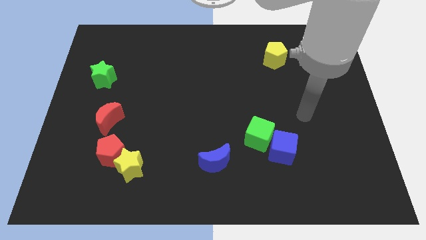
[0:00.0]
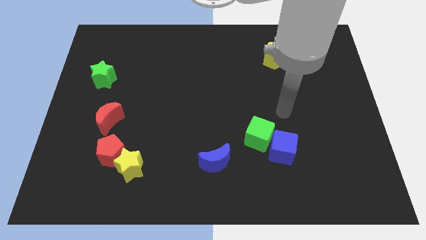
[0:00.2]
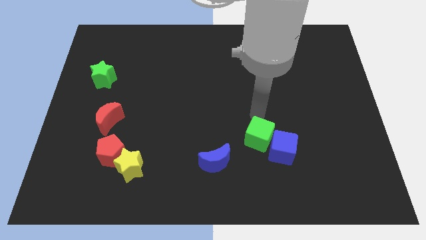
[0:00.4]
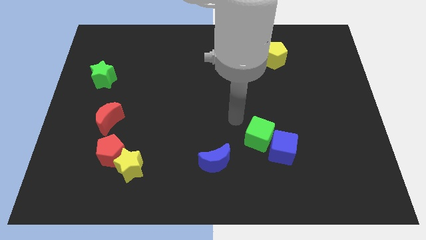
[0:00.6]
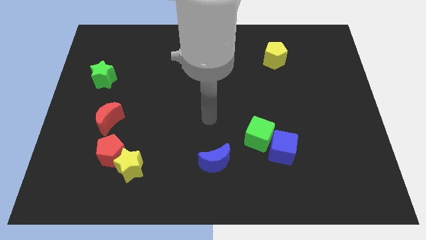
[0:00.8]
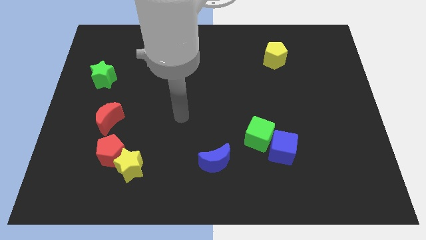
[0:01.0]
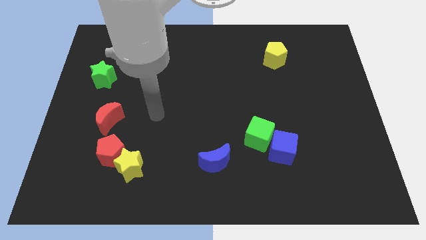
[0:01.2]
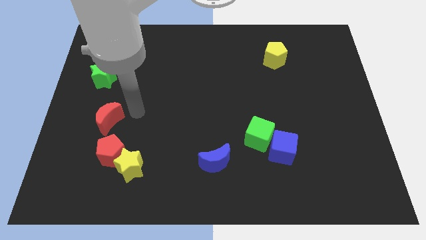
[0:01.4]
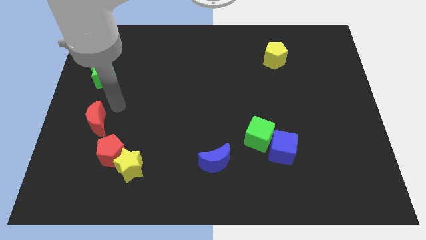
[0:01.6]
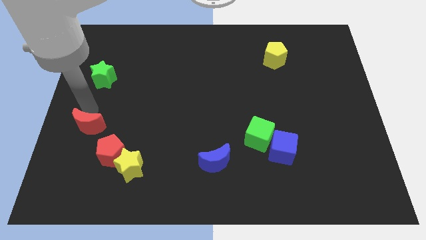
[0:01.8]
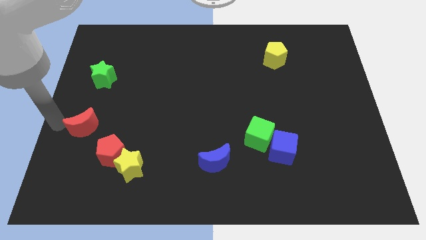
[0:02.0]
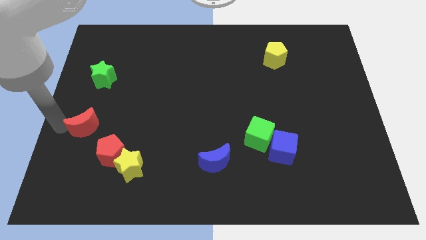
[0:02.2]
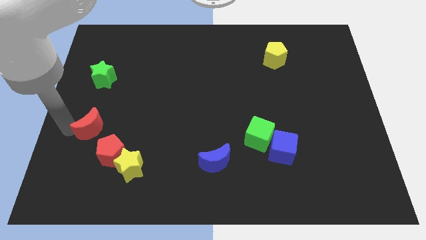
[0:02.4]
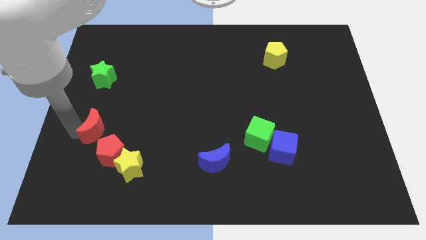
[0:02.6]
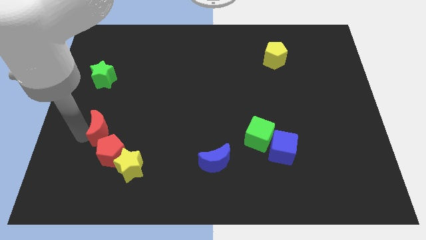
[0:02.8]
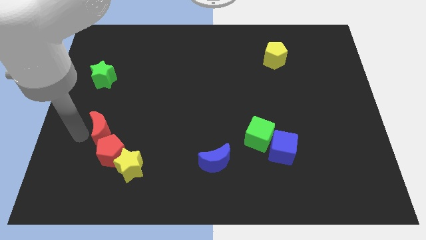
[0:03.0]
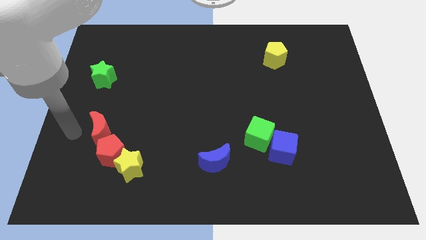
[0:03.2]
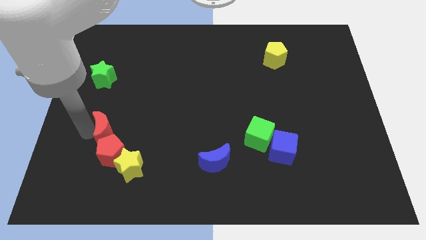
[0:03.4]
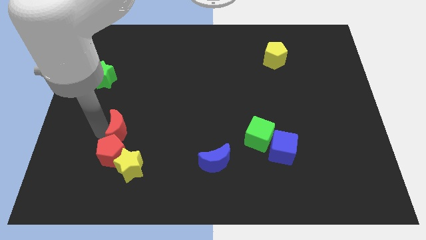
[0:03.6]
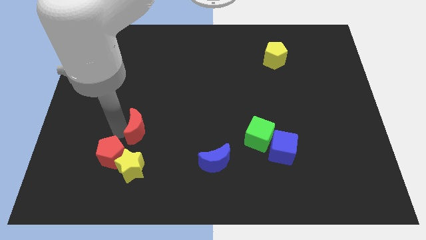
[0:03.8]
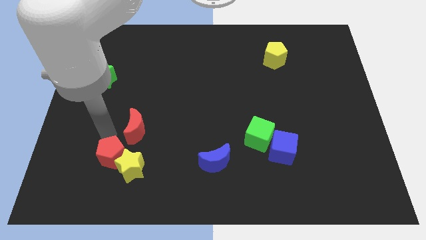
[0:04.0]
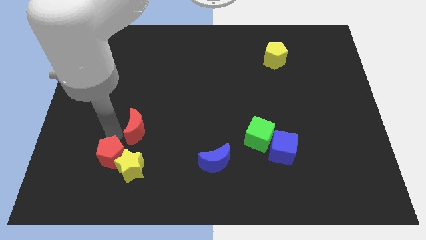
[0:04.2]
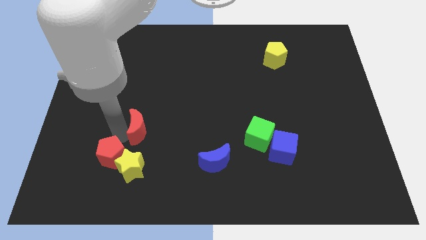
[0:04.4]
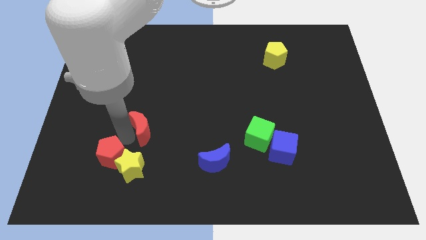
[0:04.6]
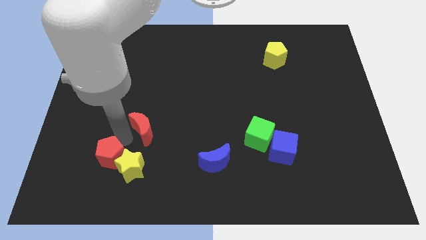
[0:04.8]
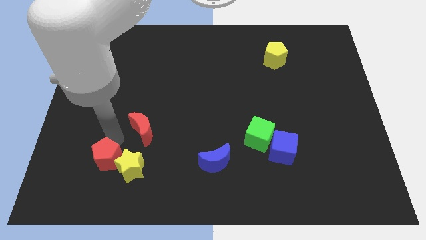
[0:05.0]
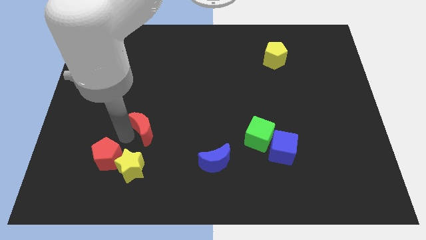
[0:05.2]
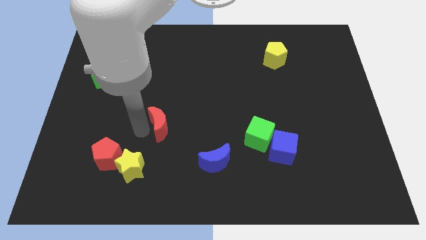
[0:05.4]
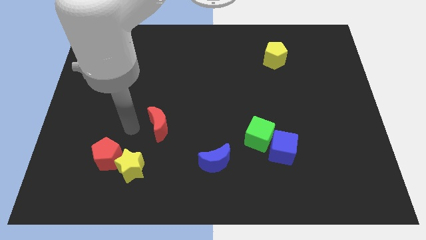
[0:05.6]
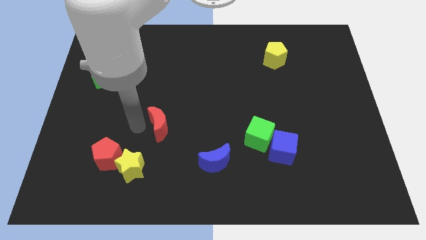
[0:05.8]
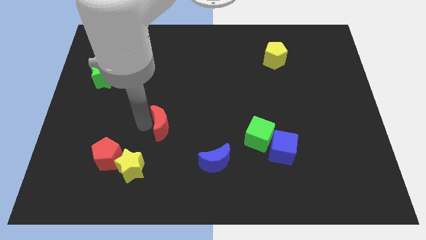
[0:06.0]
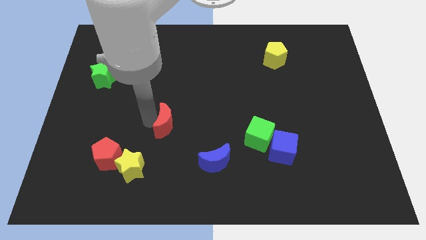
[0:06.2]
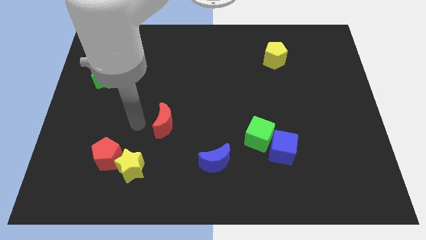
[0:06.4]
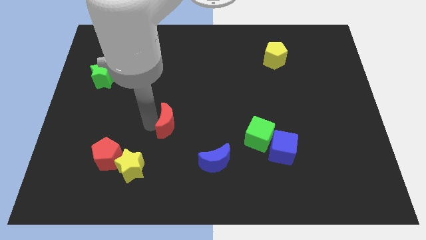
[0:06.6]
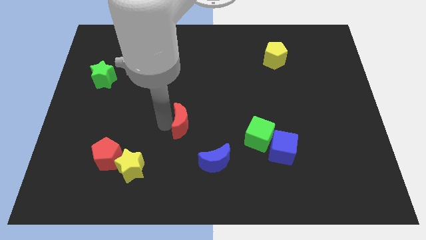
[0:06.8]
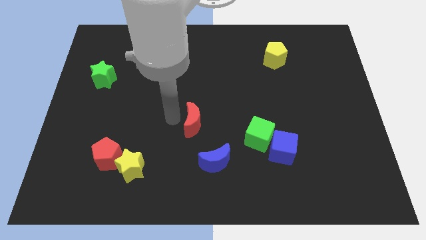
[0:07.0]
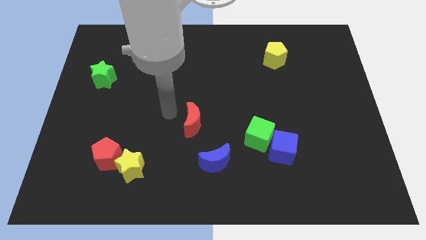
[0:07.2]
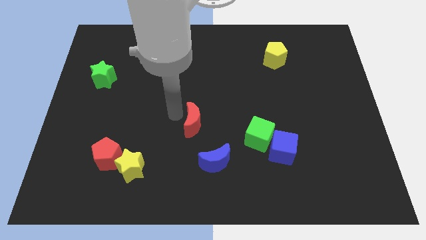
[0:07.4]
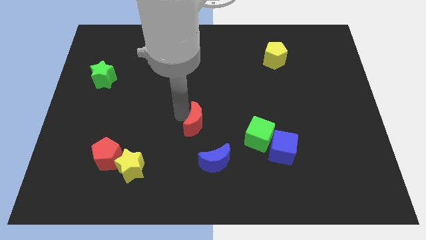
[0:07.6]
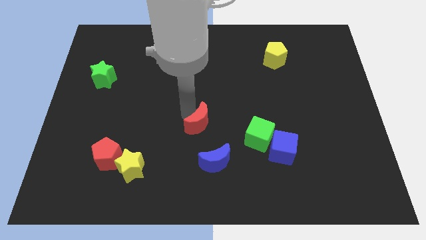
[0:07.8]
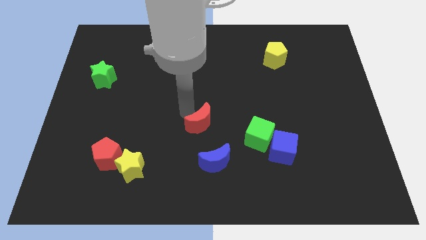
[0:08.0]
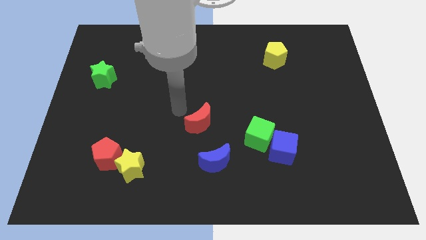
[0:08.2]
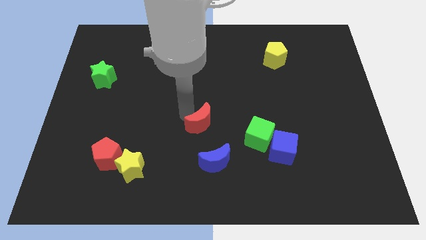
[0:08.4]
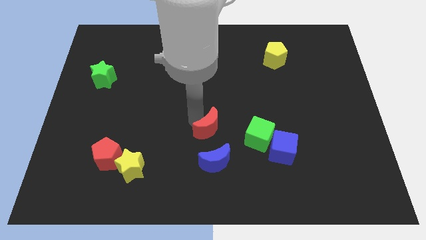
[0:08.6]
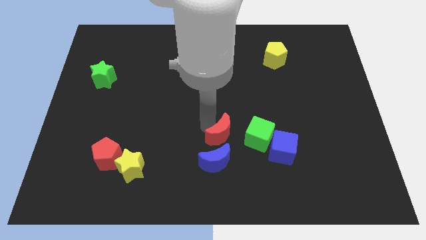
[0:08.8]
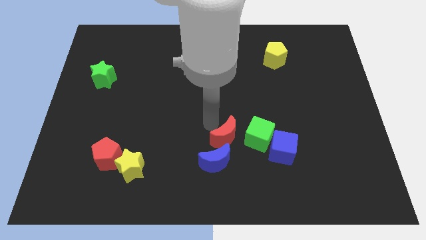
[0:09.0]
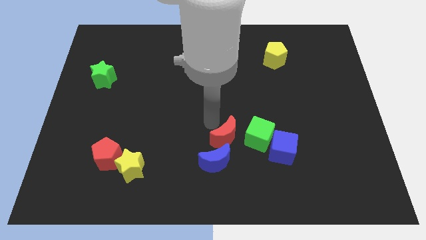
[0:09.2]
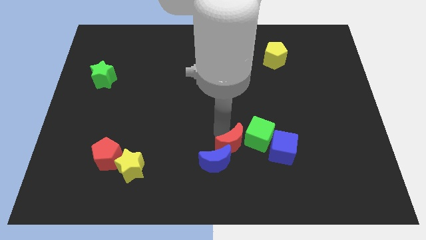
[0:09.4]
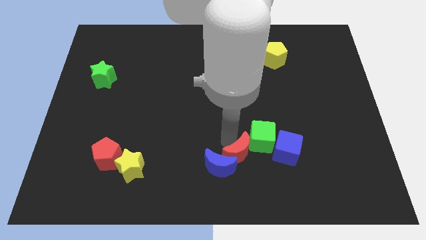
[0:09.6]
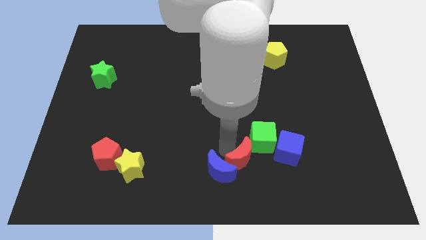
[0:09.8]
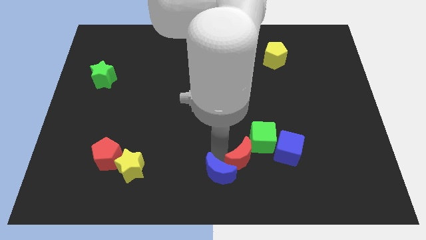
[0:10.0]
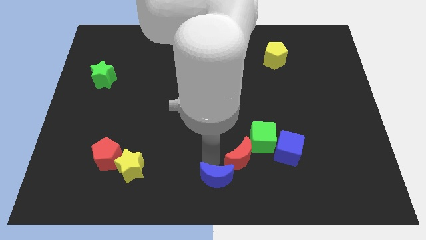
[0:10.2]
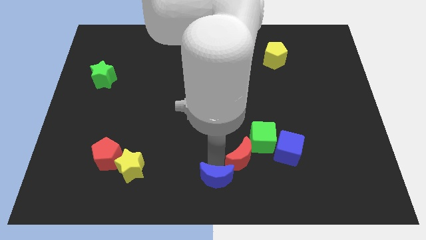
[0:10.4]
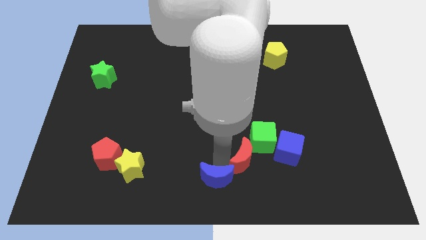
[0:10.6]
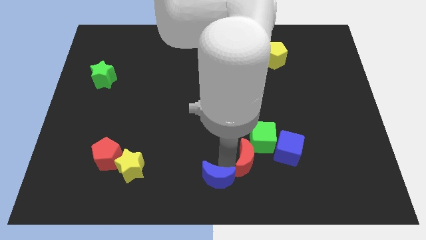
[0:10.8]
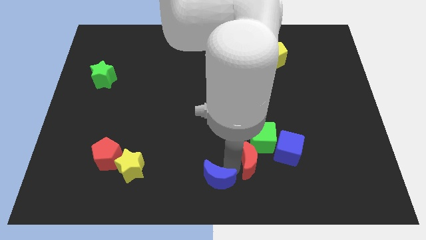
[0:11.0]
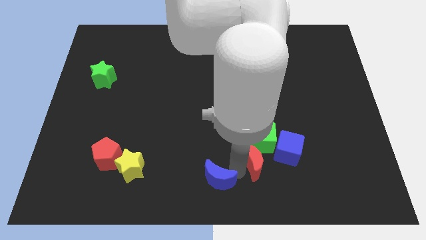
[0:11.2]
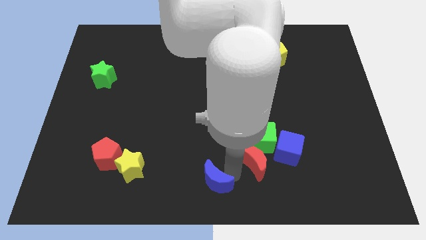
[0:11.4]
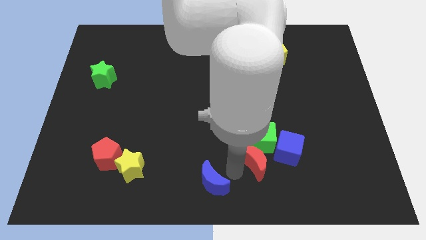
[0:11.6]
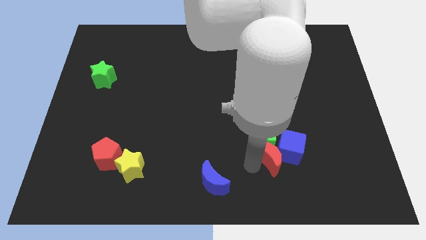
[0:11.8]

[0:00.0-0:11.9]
slide the red moon towards the blue cube
